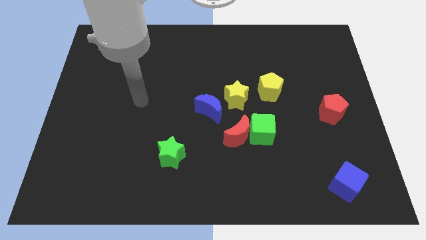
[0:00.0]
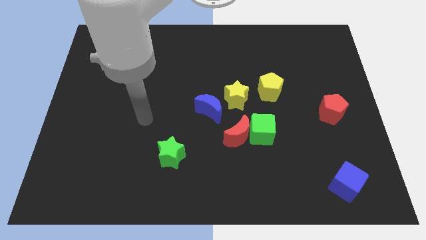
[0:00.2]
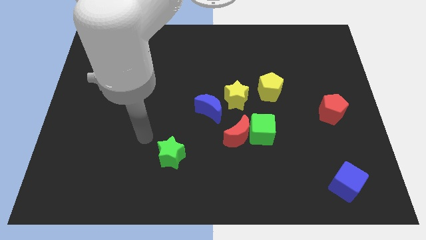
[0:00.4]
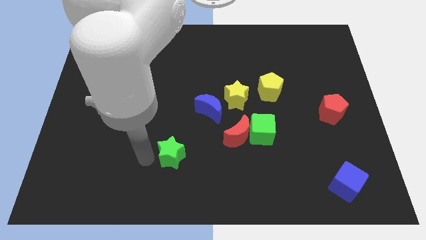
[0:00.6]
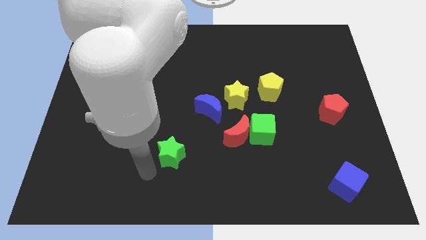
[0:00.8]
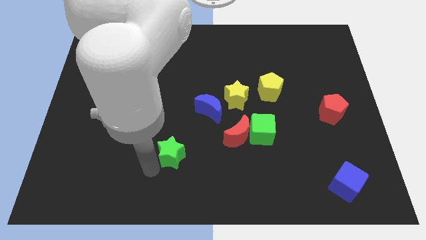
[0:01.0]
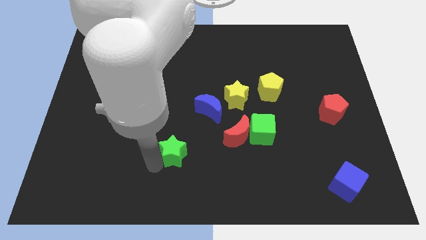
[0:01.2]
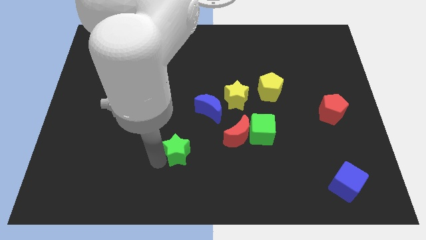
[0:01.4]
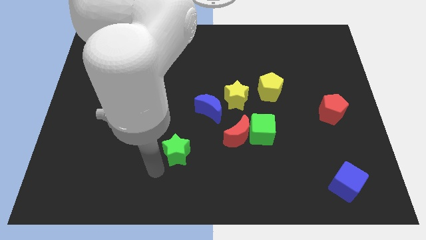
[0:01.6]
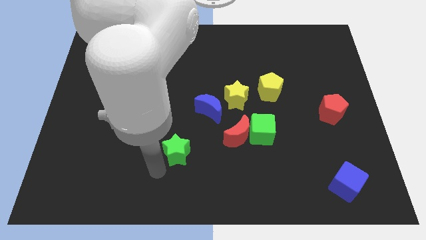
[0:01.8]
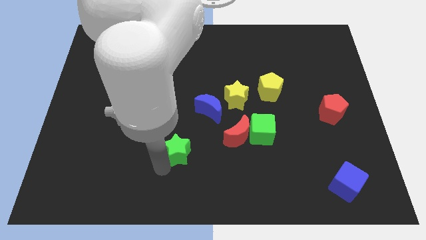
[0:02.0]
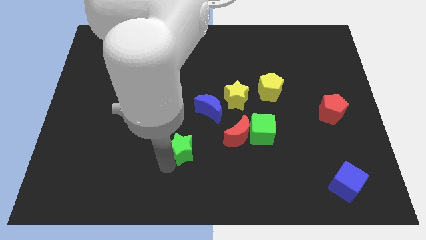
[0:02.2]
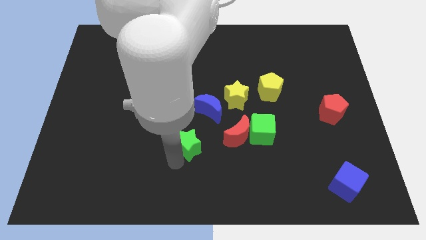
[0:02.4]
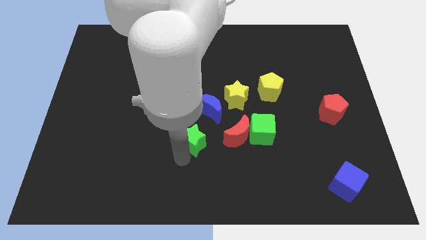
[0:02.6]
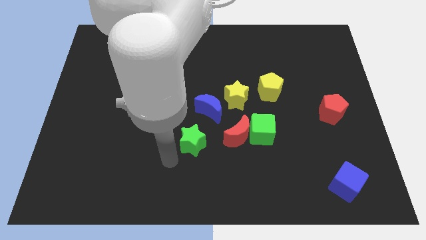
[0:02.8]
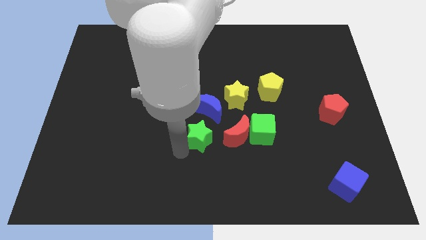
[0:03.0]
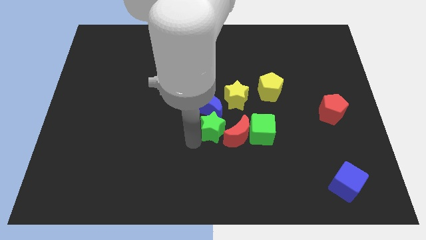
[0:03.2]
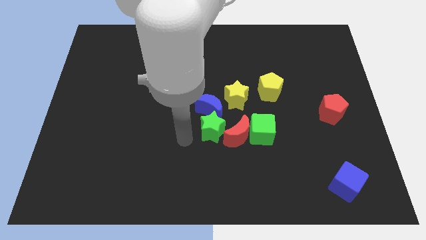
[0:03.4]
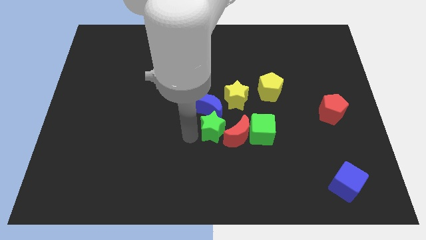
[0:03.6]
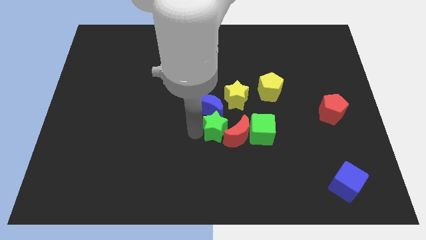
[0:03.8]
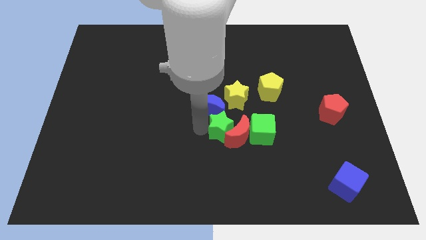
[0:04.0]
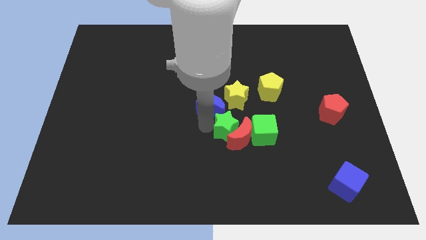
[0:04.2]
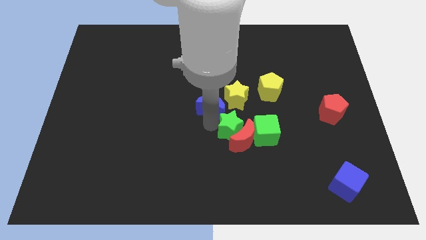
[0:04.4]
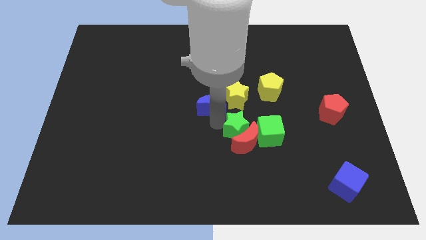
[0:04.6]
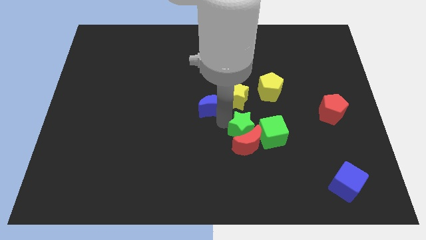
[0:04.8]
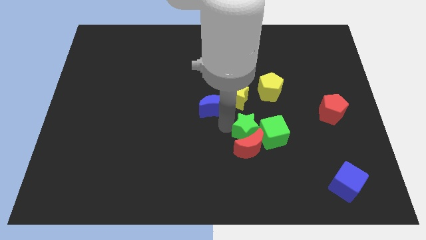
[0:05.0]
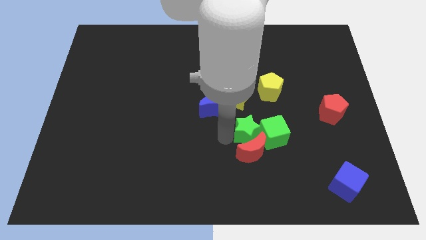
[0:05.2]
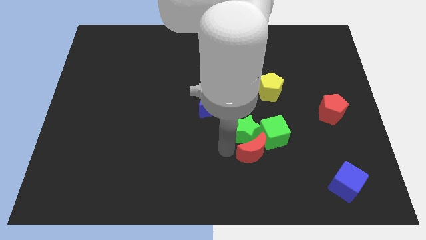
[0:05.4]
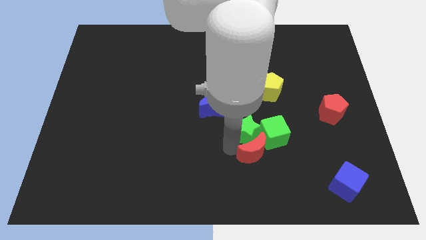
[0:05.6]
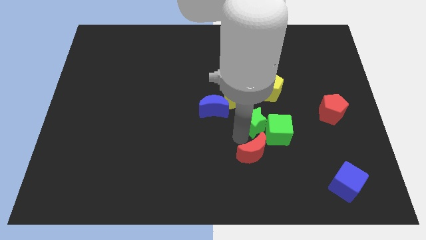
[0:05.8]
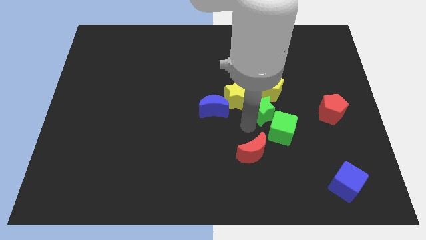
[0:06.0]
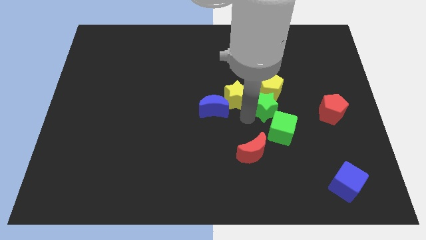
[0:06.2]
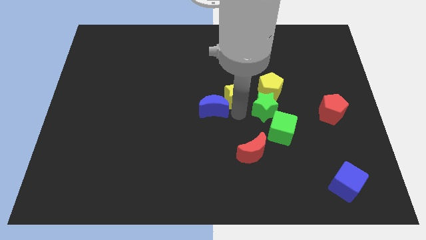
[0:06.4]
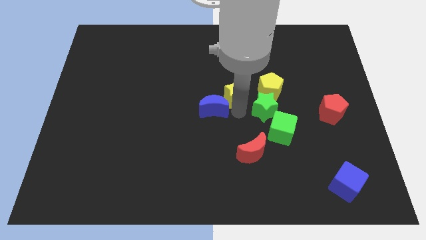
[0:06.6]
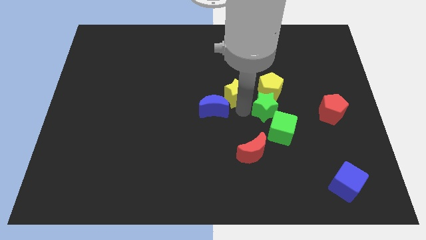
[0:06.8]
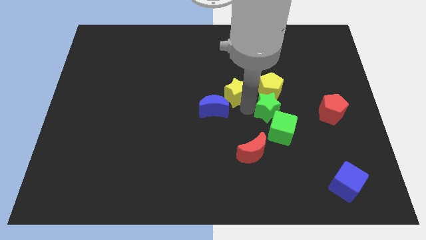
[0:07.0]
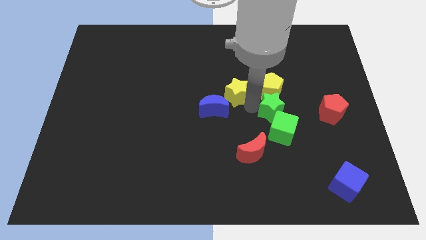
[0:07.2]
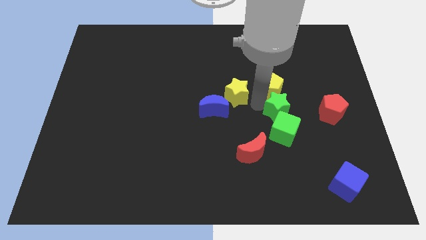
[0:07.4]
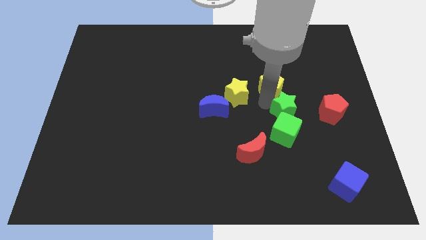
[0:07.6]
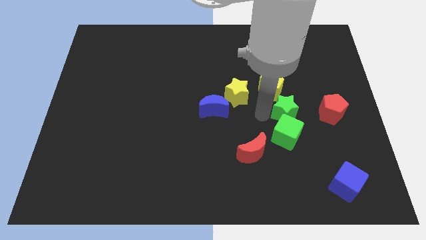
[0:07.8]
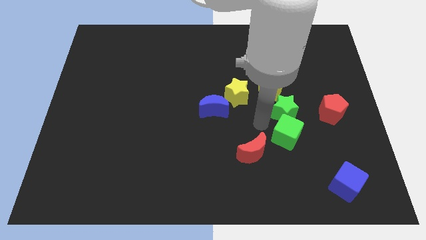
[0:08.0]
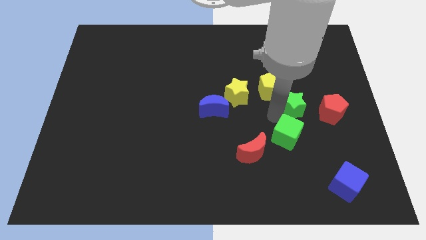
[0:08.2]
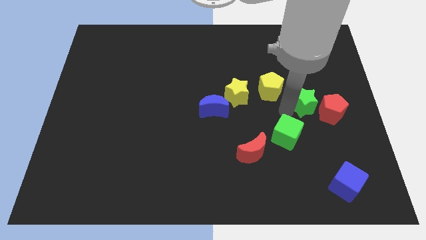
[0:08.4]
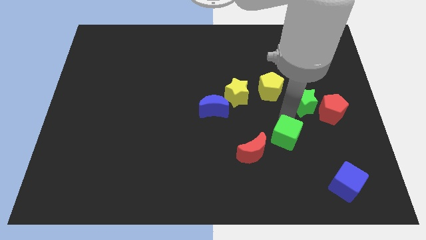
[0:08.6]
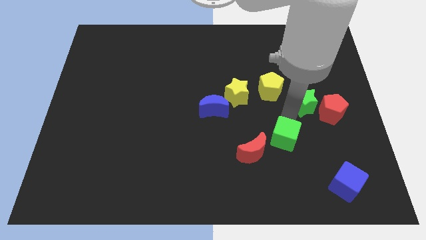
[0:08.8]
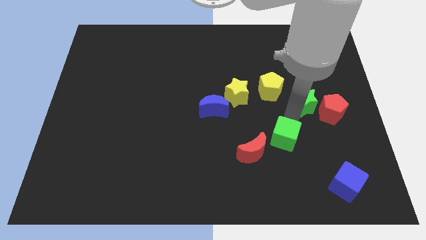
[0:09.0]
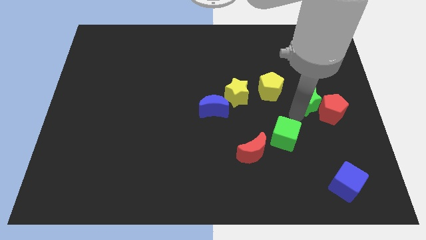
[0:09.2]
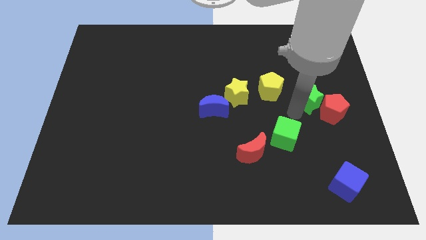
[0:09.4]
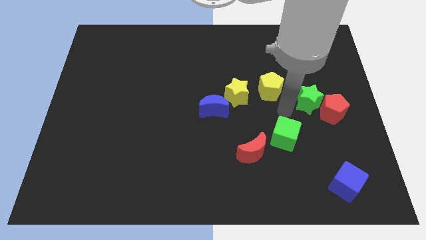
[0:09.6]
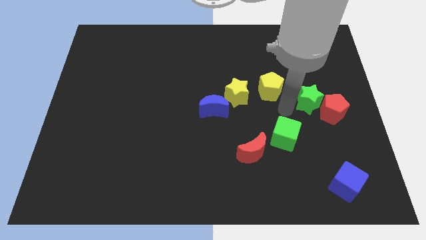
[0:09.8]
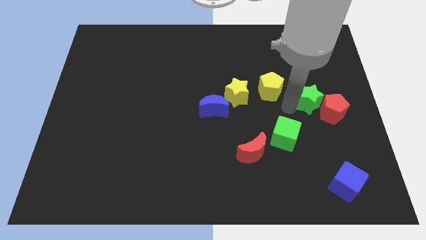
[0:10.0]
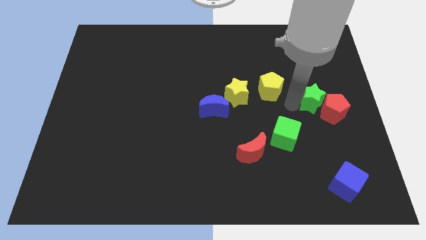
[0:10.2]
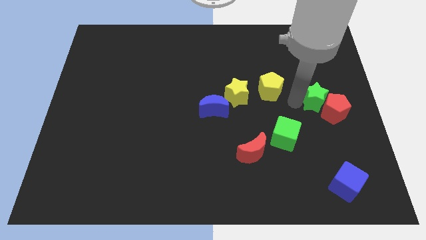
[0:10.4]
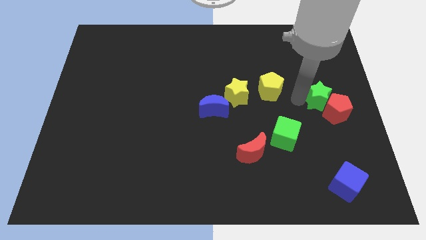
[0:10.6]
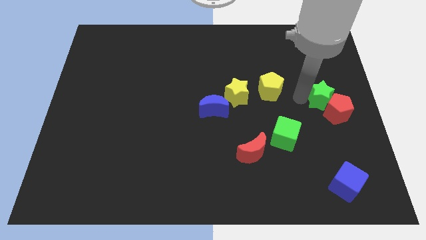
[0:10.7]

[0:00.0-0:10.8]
move the green star to the right side

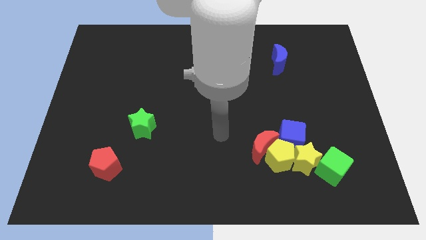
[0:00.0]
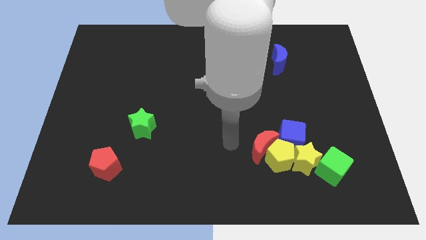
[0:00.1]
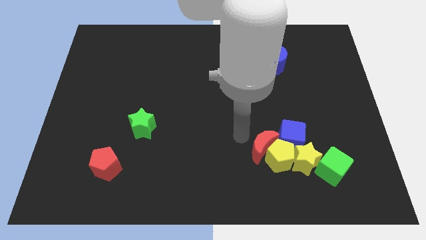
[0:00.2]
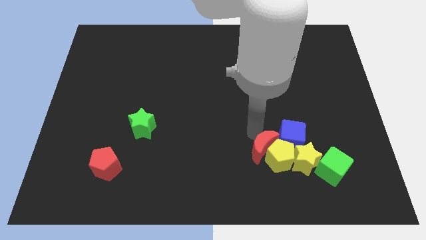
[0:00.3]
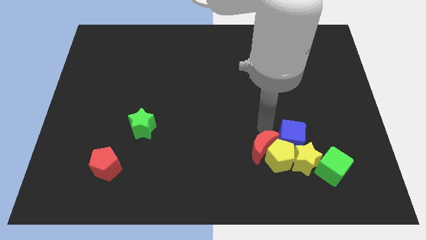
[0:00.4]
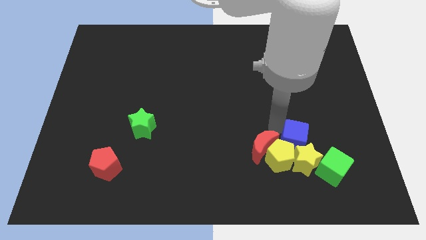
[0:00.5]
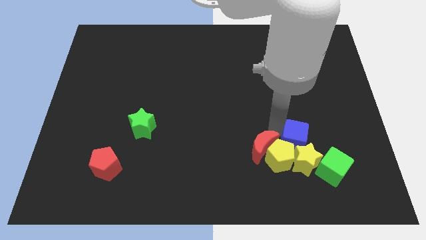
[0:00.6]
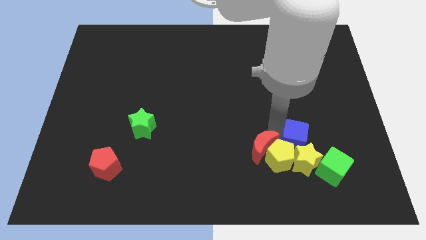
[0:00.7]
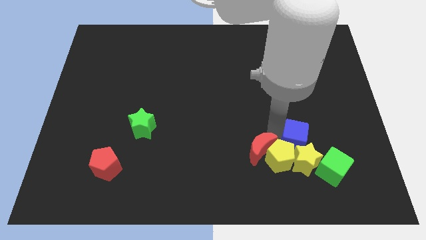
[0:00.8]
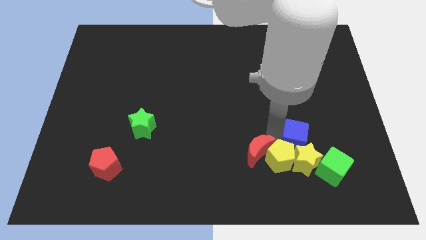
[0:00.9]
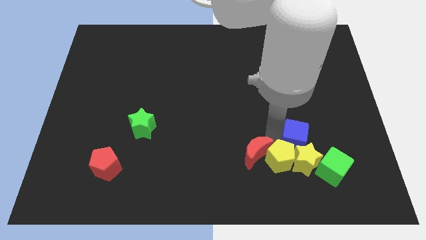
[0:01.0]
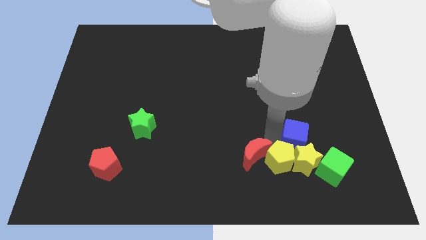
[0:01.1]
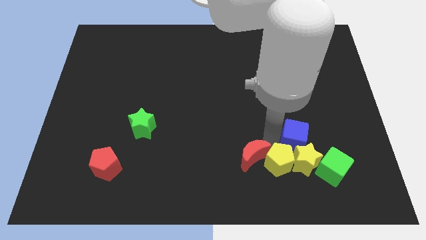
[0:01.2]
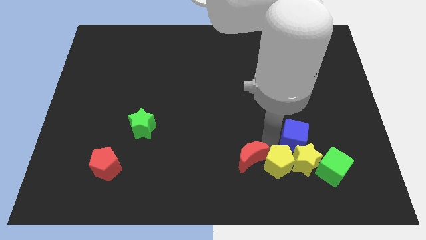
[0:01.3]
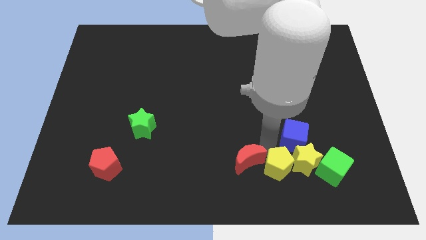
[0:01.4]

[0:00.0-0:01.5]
push the red moon to the bottom side
